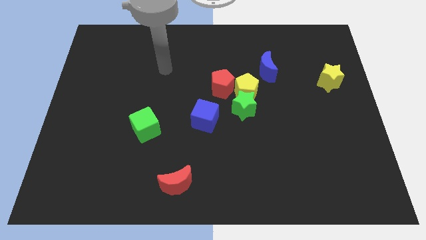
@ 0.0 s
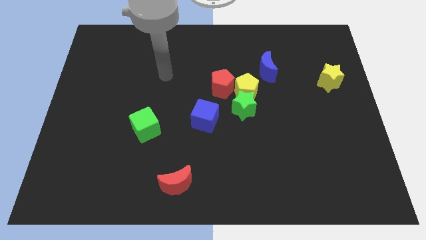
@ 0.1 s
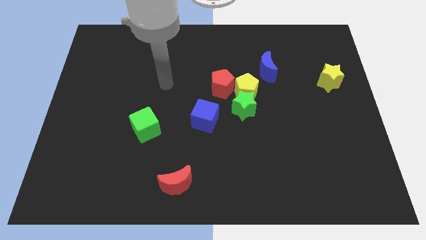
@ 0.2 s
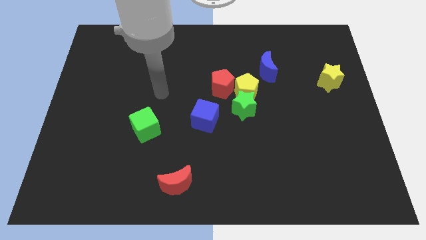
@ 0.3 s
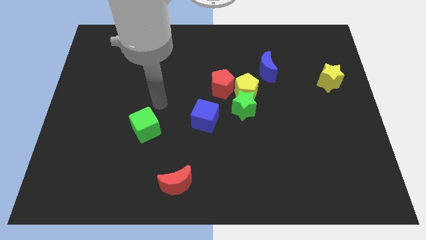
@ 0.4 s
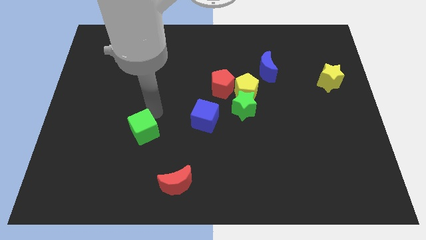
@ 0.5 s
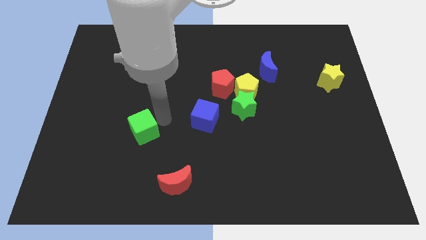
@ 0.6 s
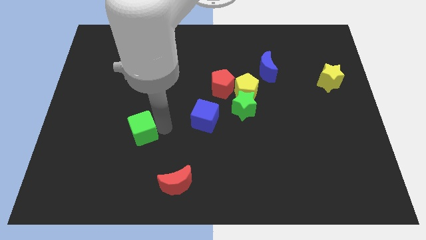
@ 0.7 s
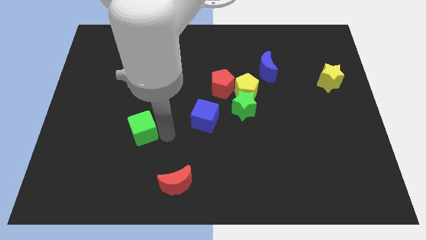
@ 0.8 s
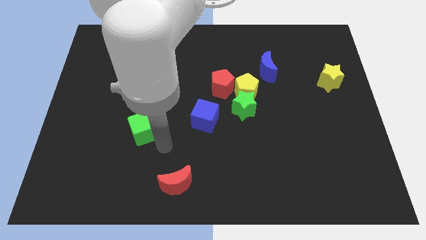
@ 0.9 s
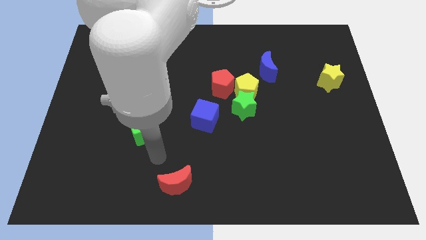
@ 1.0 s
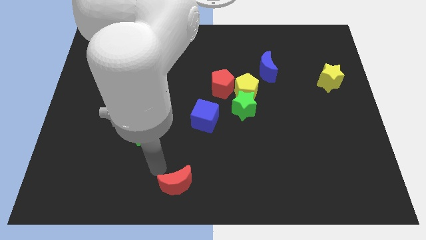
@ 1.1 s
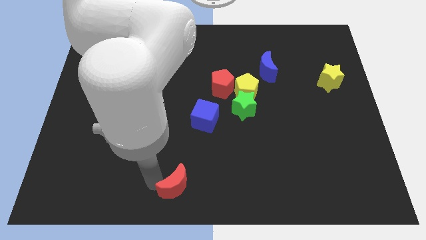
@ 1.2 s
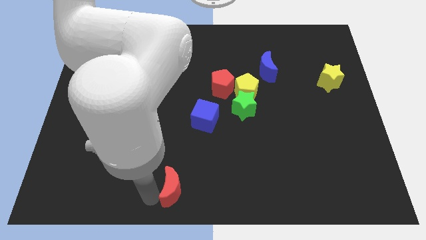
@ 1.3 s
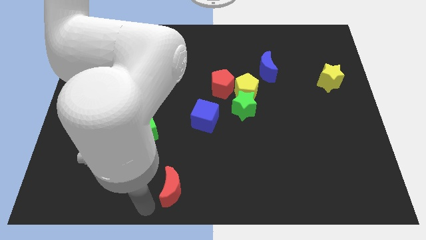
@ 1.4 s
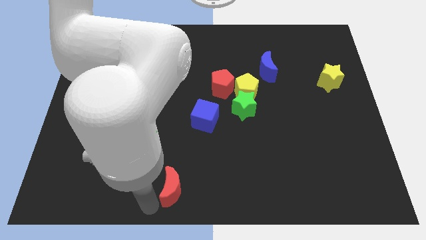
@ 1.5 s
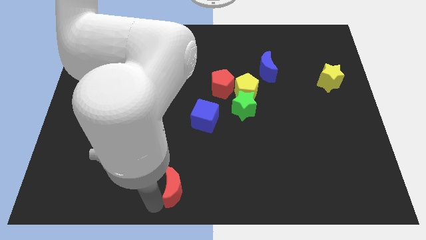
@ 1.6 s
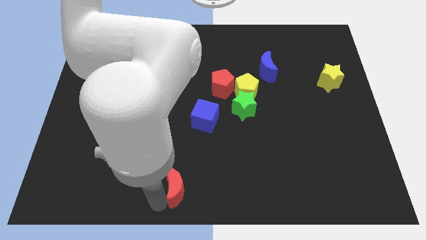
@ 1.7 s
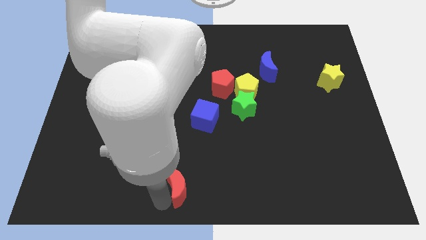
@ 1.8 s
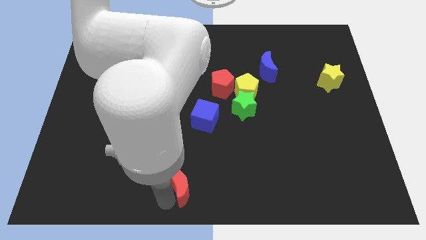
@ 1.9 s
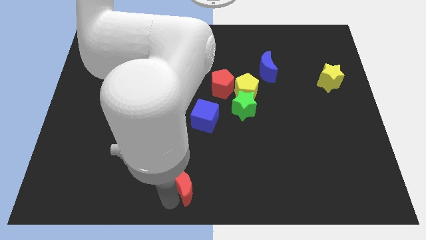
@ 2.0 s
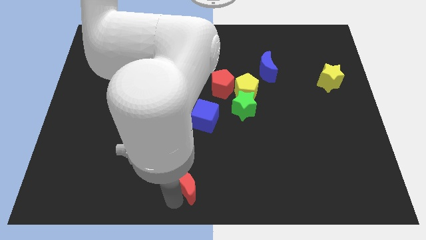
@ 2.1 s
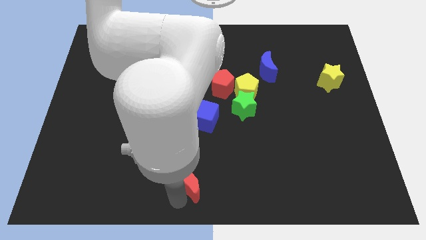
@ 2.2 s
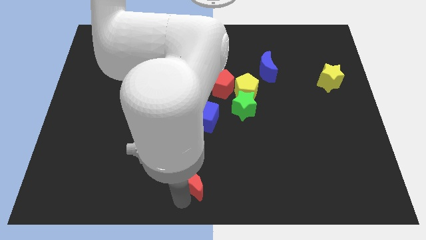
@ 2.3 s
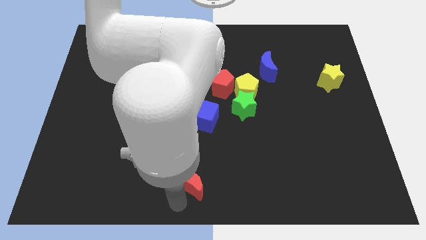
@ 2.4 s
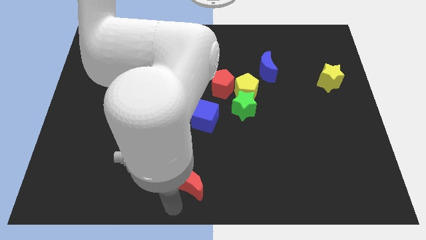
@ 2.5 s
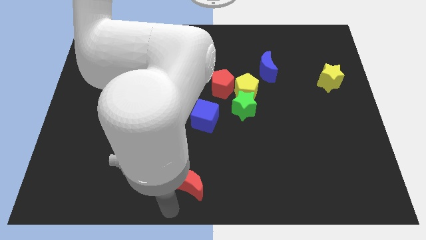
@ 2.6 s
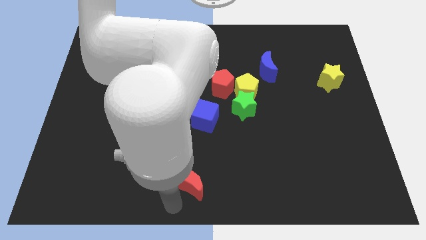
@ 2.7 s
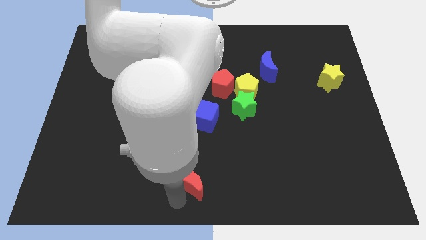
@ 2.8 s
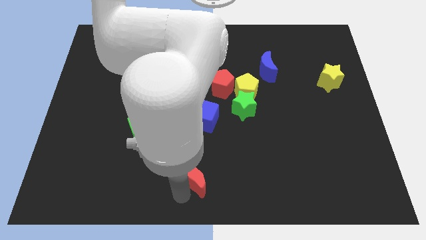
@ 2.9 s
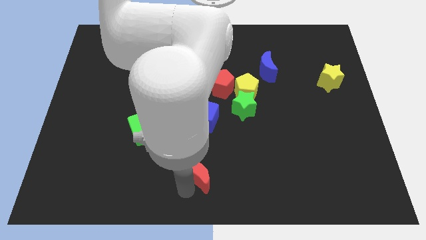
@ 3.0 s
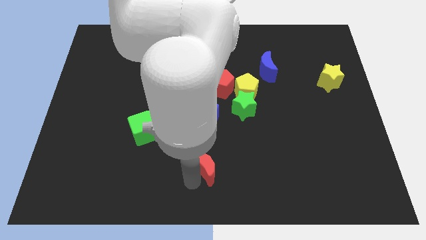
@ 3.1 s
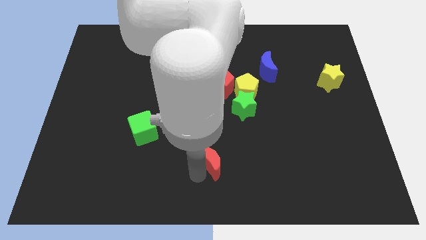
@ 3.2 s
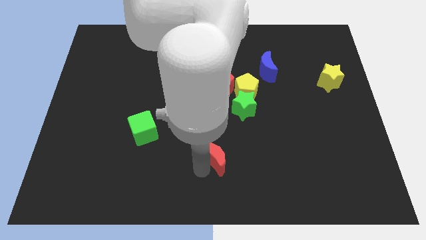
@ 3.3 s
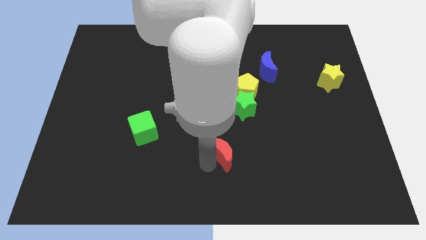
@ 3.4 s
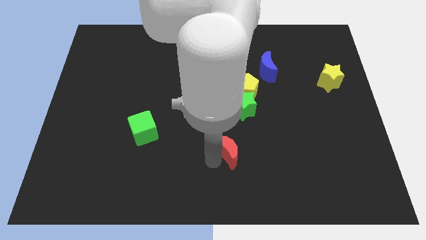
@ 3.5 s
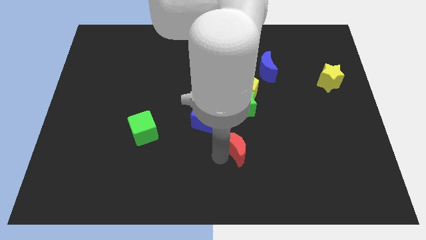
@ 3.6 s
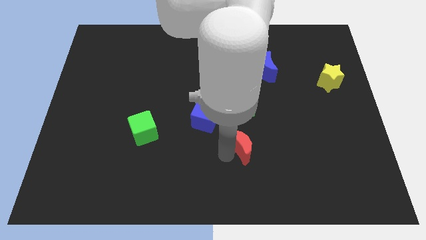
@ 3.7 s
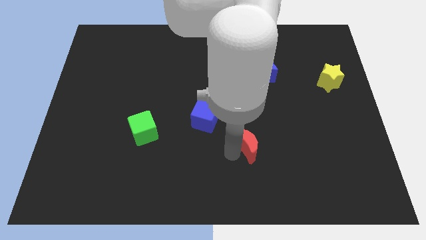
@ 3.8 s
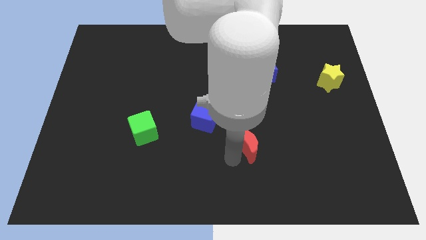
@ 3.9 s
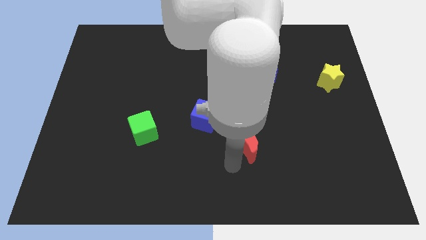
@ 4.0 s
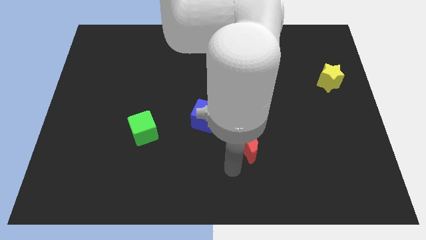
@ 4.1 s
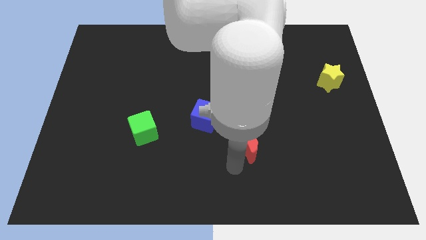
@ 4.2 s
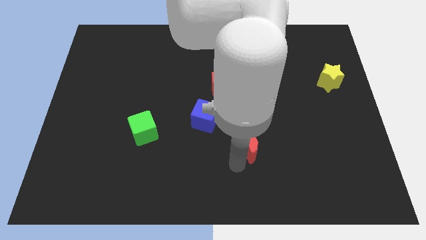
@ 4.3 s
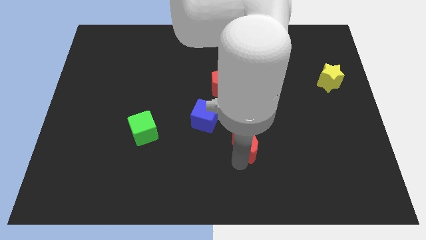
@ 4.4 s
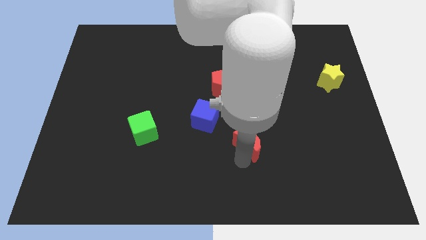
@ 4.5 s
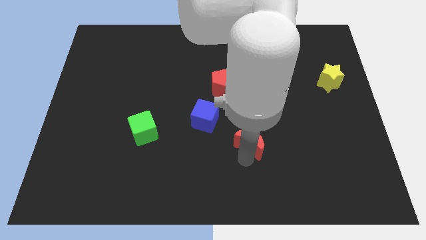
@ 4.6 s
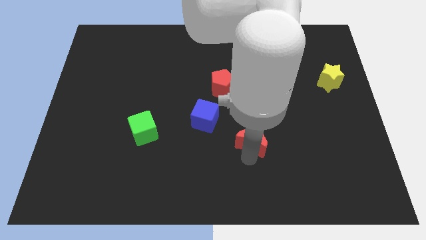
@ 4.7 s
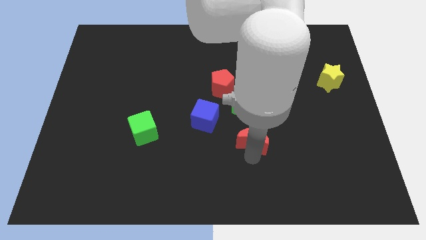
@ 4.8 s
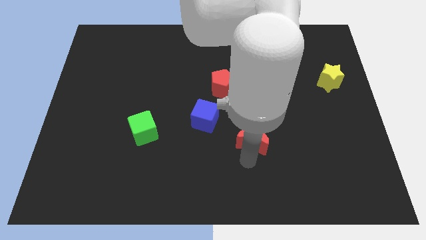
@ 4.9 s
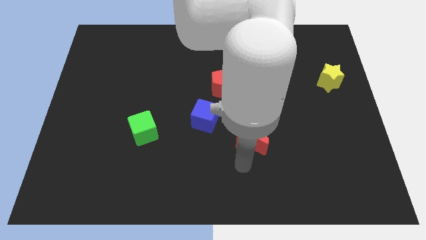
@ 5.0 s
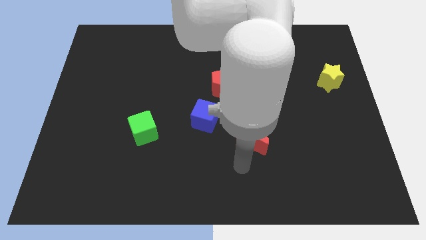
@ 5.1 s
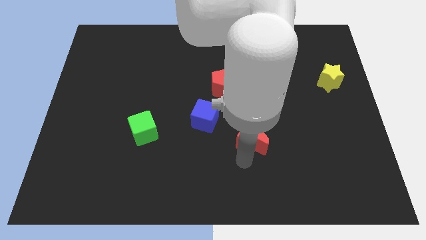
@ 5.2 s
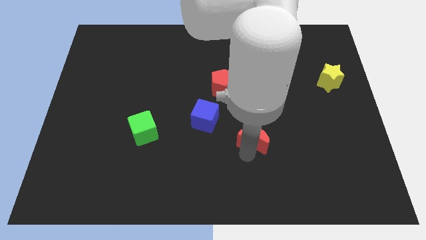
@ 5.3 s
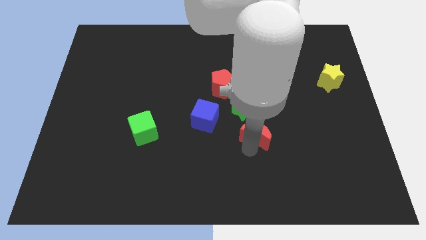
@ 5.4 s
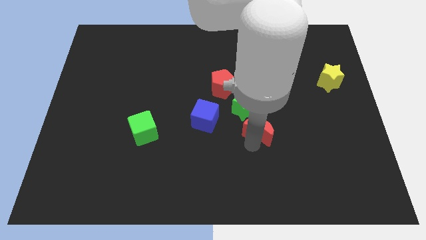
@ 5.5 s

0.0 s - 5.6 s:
slide the red moon up and right diagonally

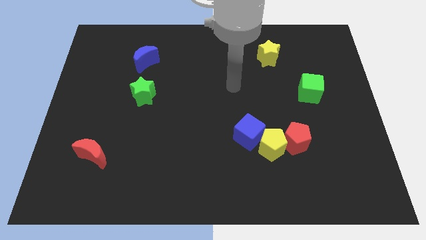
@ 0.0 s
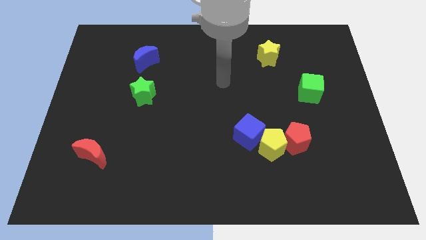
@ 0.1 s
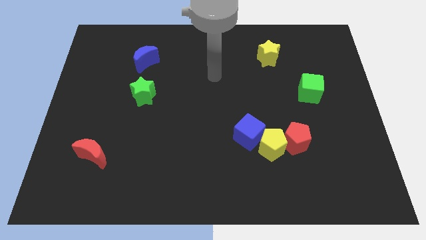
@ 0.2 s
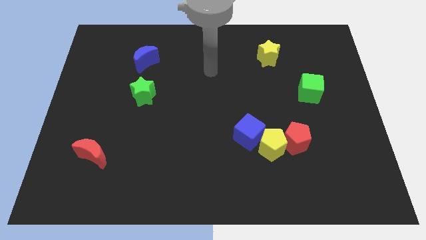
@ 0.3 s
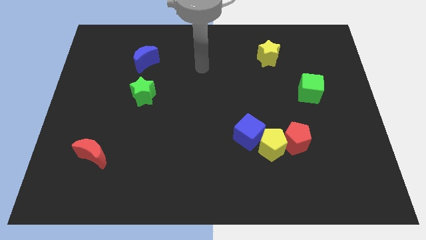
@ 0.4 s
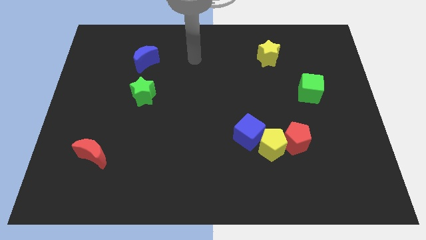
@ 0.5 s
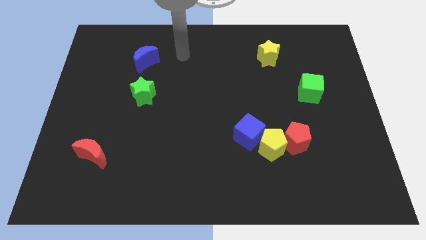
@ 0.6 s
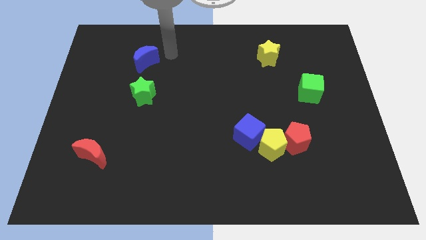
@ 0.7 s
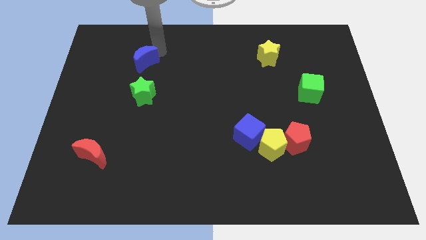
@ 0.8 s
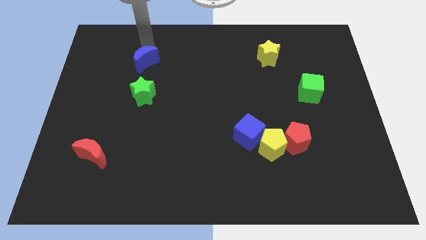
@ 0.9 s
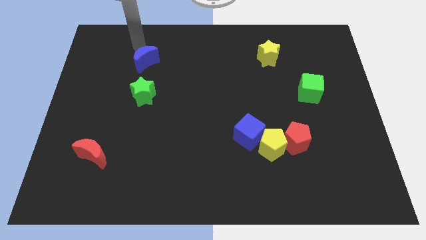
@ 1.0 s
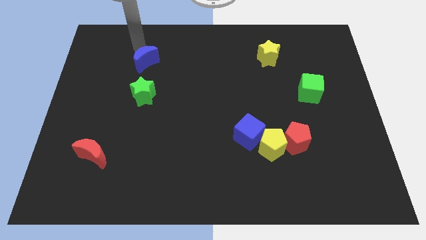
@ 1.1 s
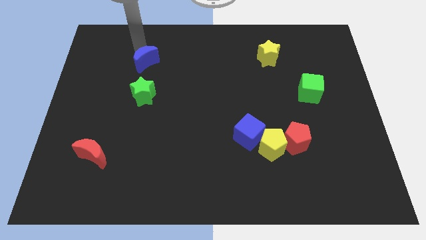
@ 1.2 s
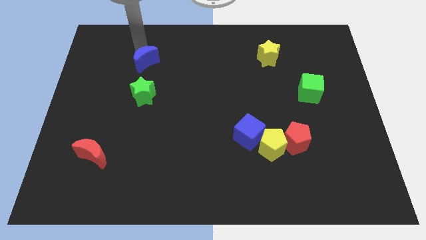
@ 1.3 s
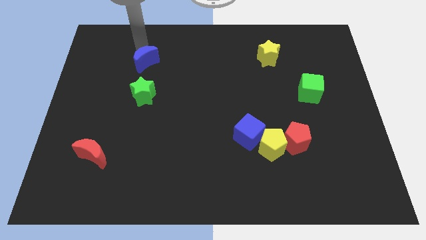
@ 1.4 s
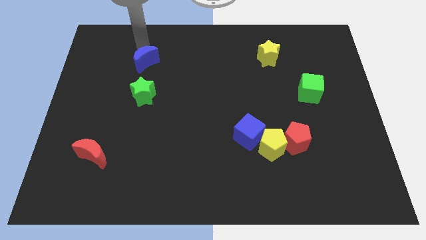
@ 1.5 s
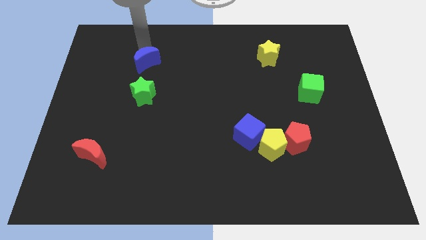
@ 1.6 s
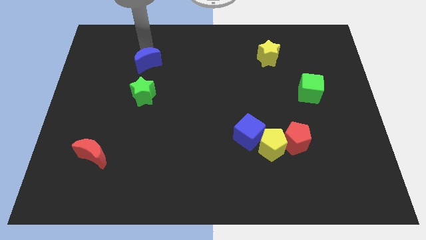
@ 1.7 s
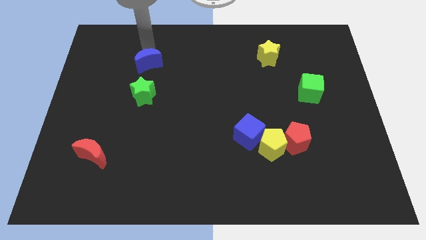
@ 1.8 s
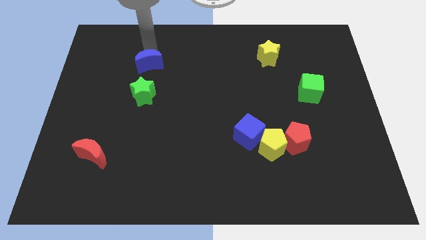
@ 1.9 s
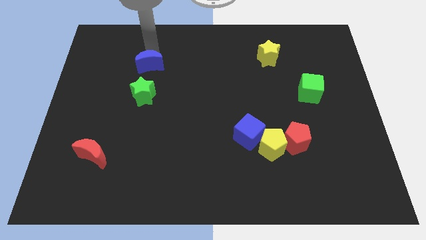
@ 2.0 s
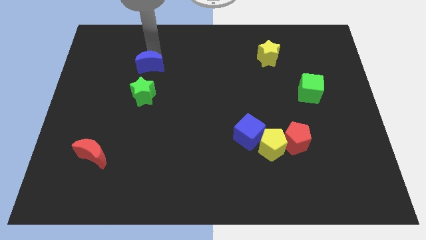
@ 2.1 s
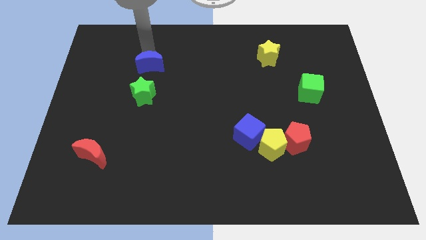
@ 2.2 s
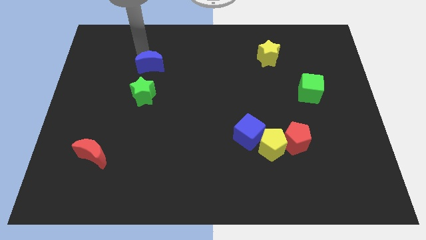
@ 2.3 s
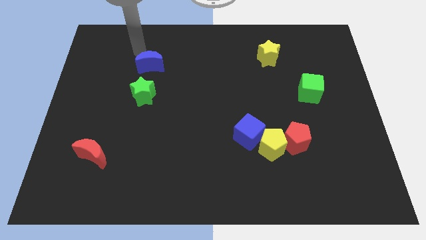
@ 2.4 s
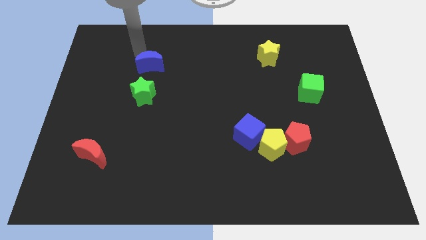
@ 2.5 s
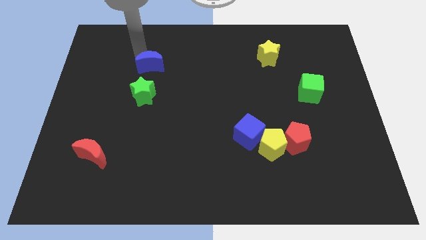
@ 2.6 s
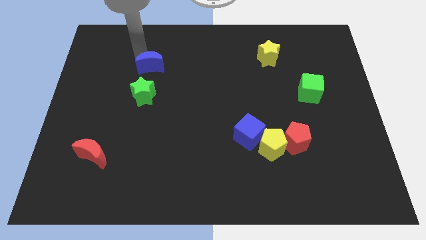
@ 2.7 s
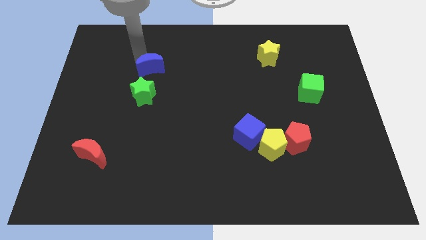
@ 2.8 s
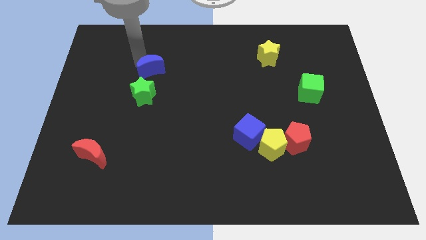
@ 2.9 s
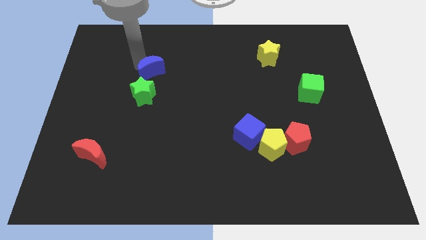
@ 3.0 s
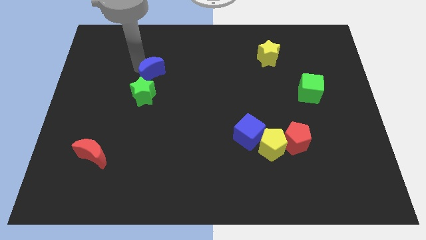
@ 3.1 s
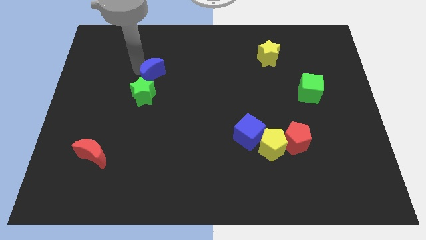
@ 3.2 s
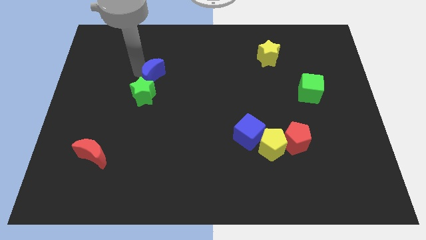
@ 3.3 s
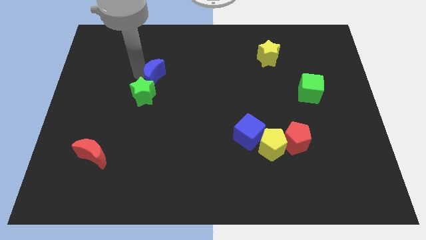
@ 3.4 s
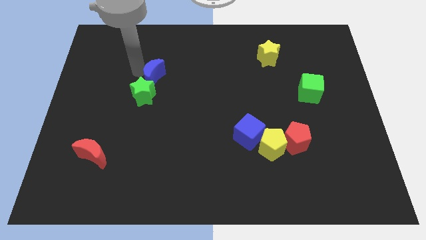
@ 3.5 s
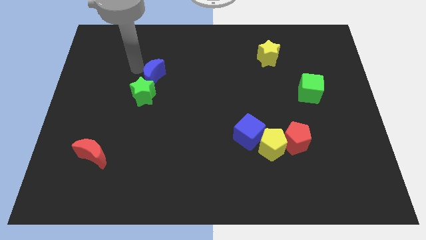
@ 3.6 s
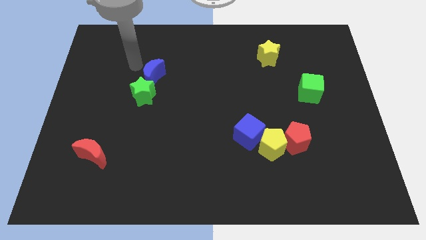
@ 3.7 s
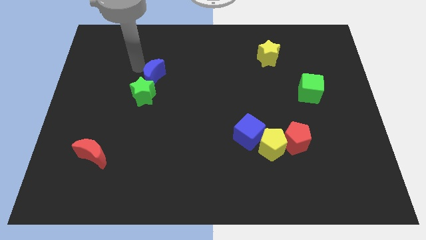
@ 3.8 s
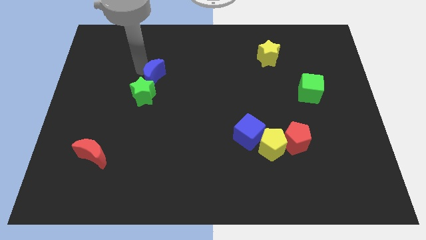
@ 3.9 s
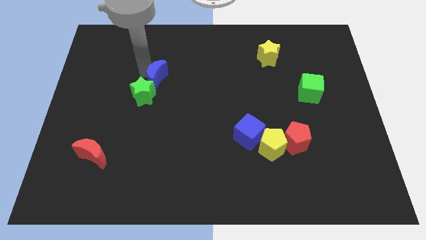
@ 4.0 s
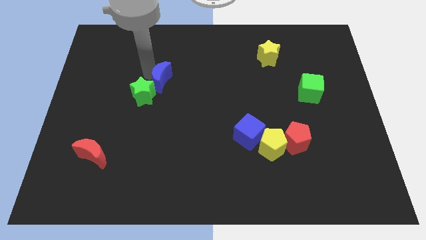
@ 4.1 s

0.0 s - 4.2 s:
move the blue moon downwards and then to the right somewhat
